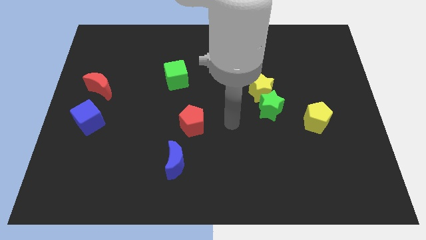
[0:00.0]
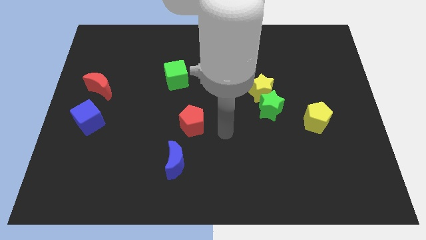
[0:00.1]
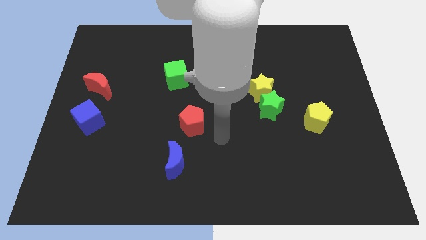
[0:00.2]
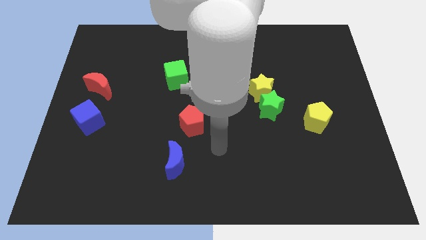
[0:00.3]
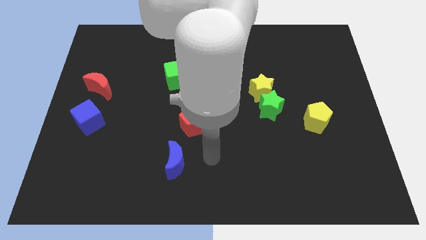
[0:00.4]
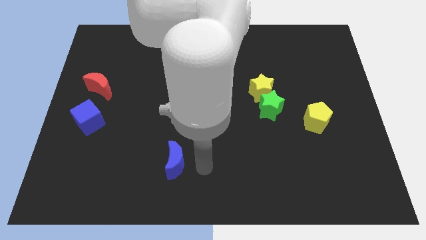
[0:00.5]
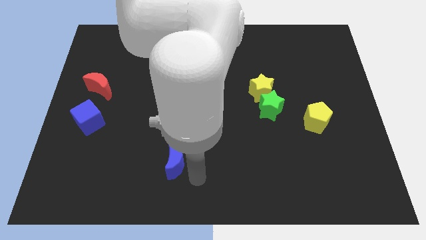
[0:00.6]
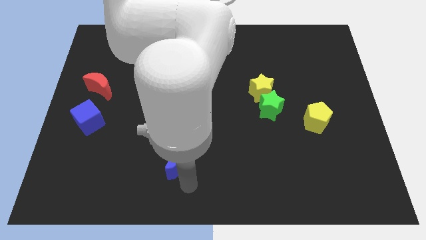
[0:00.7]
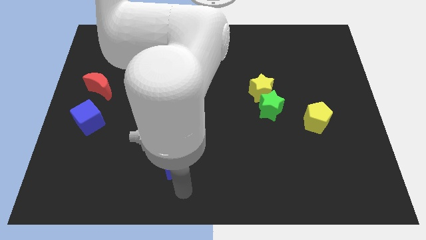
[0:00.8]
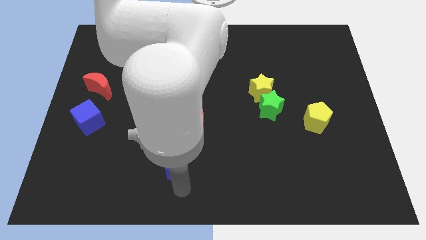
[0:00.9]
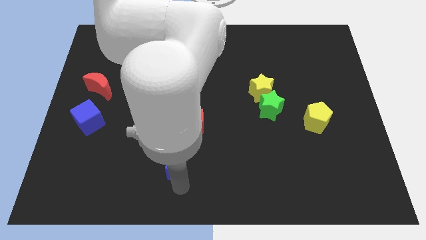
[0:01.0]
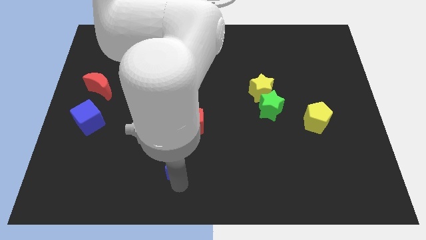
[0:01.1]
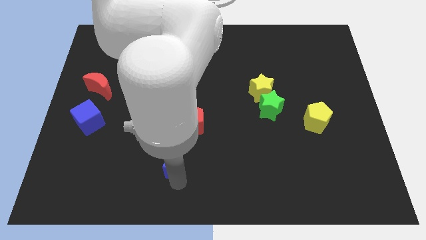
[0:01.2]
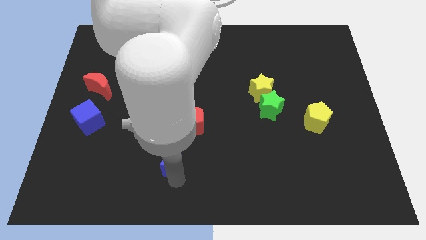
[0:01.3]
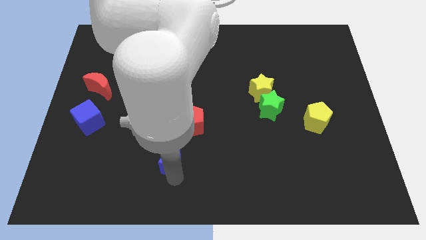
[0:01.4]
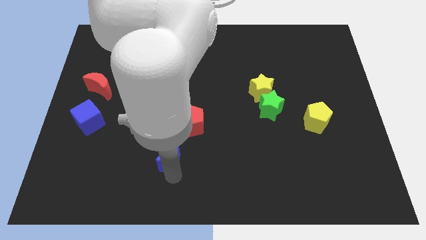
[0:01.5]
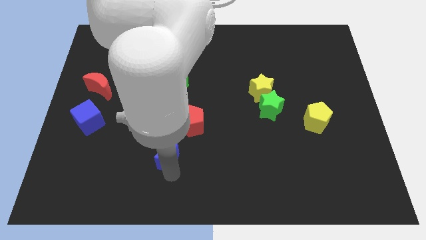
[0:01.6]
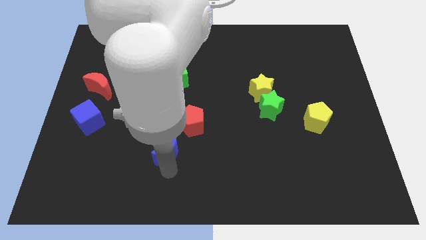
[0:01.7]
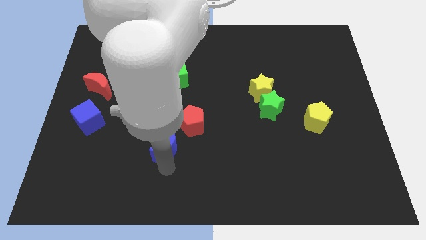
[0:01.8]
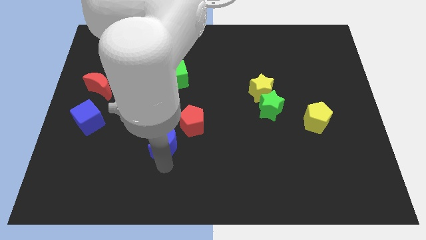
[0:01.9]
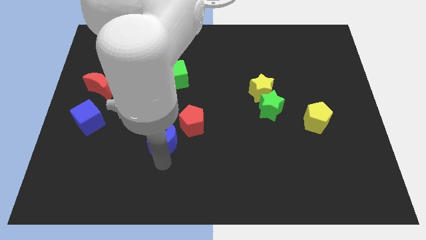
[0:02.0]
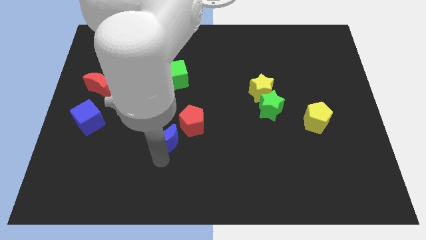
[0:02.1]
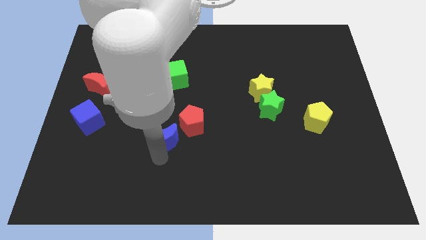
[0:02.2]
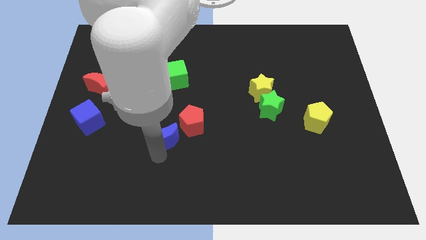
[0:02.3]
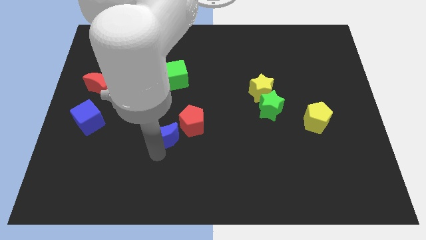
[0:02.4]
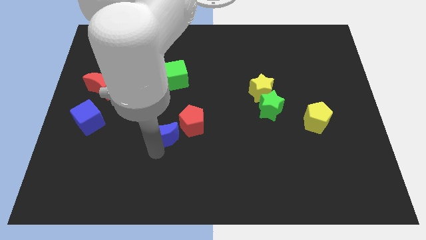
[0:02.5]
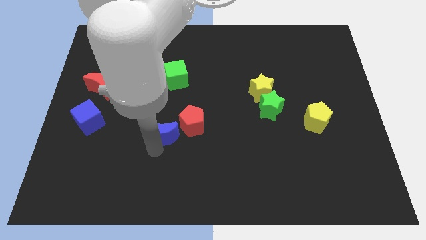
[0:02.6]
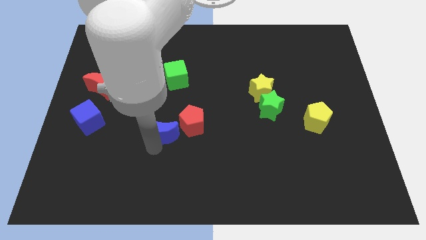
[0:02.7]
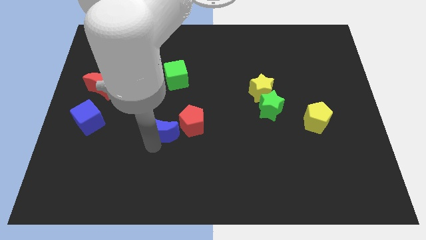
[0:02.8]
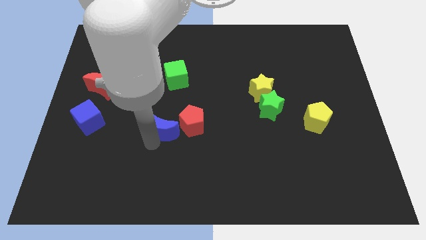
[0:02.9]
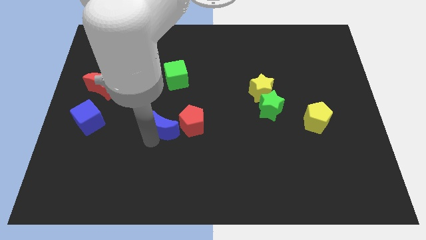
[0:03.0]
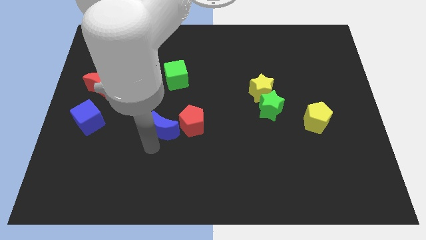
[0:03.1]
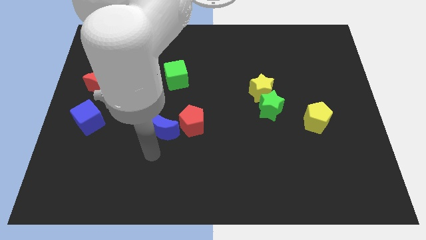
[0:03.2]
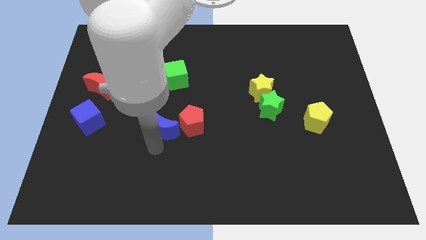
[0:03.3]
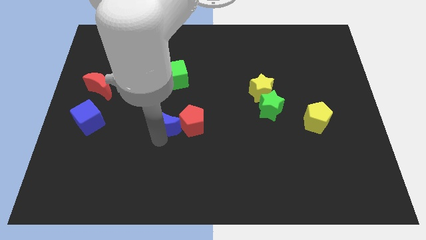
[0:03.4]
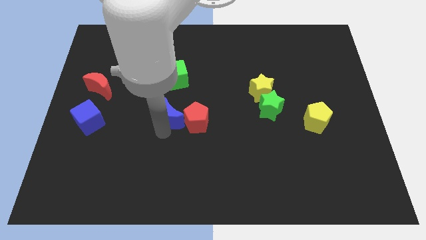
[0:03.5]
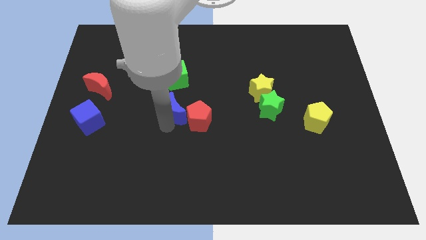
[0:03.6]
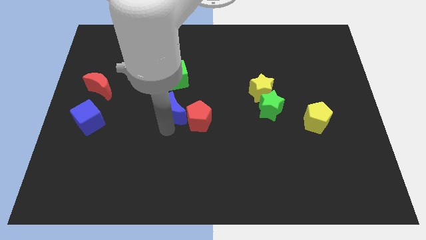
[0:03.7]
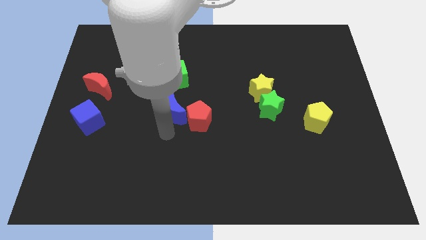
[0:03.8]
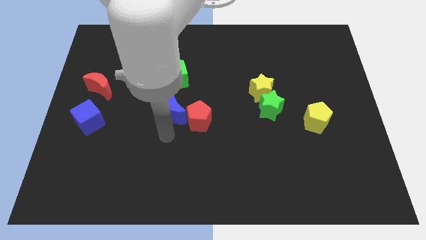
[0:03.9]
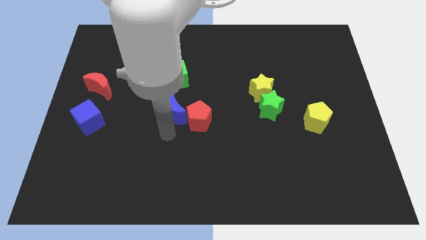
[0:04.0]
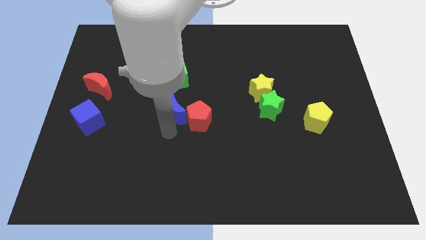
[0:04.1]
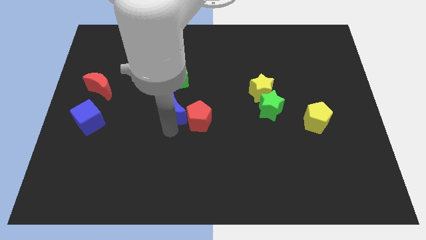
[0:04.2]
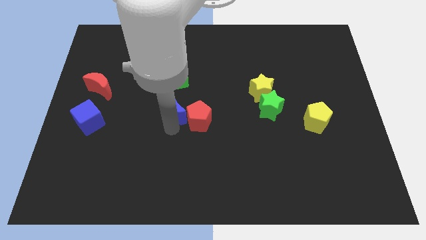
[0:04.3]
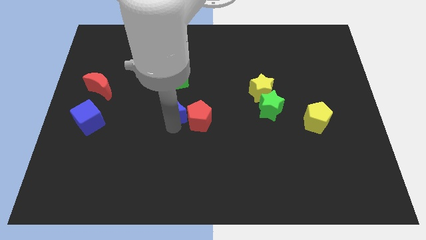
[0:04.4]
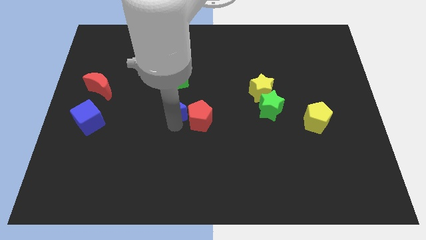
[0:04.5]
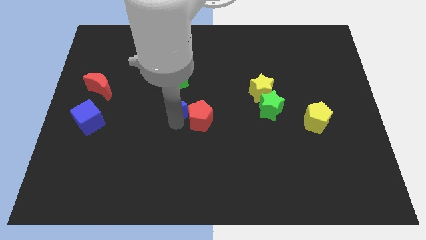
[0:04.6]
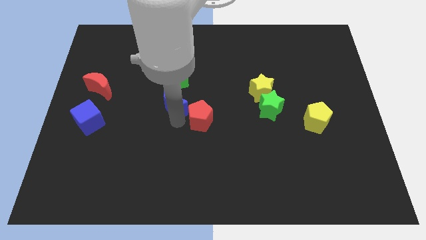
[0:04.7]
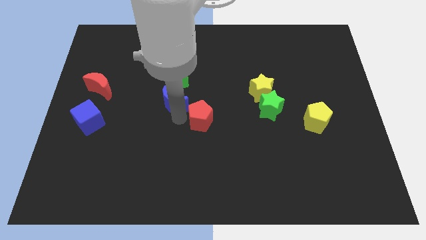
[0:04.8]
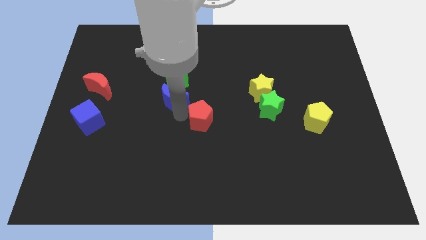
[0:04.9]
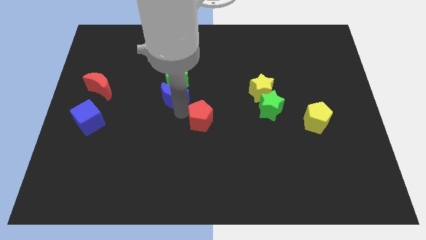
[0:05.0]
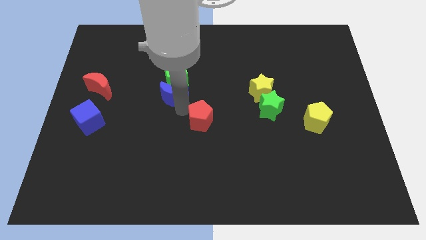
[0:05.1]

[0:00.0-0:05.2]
push the blue moon towards the green cube
